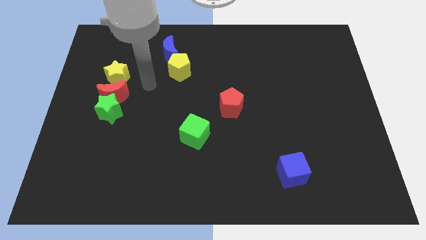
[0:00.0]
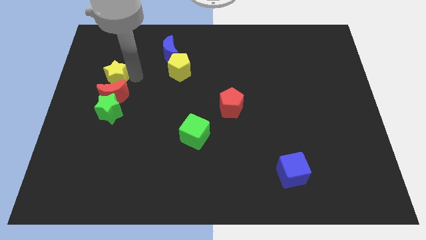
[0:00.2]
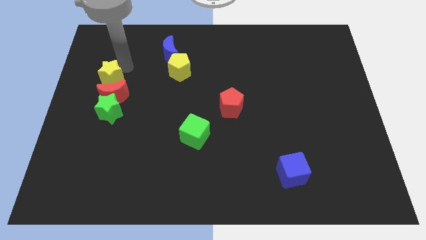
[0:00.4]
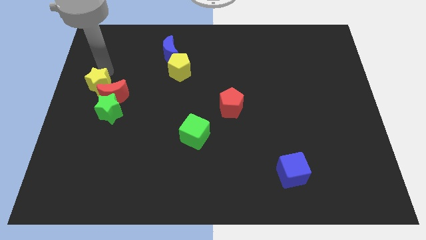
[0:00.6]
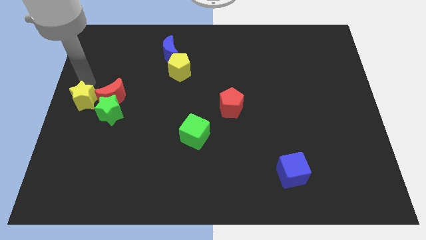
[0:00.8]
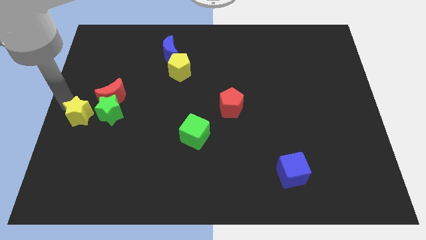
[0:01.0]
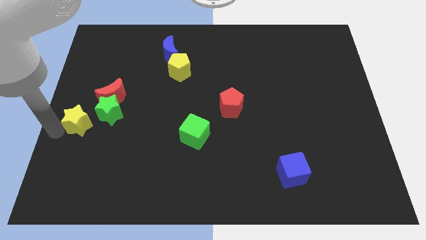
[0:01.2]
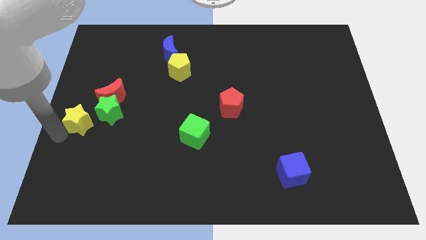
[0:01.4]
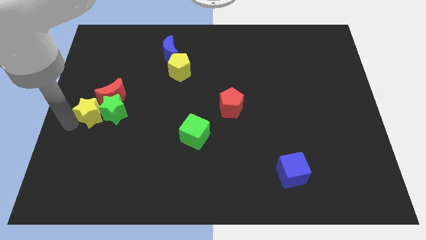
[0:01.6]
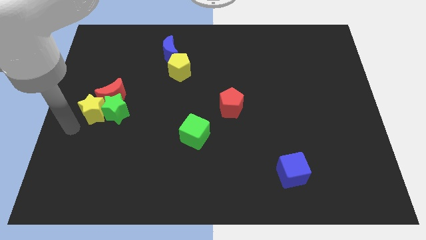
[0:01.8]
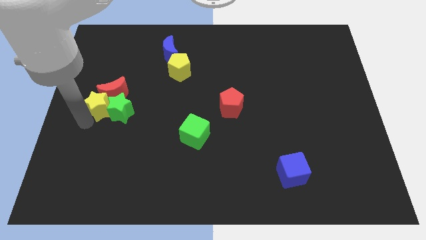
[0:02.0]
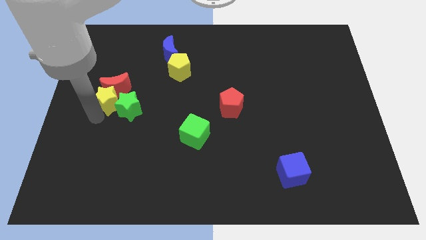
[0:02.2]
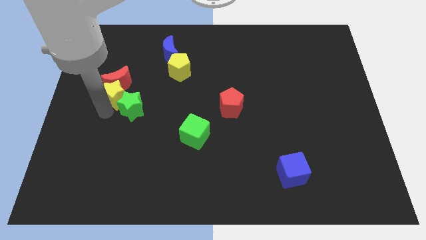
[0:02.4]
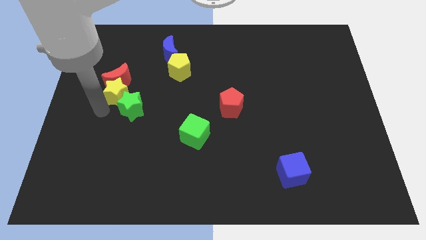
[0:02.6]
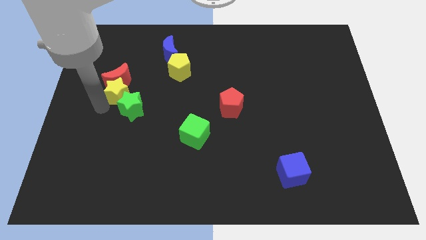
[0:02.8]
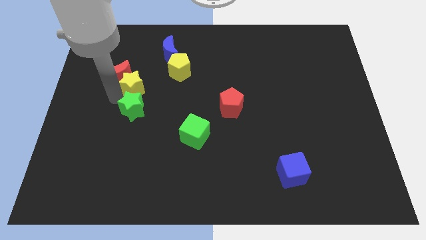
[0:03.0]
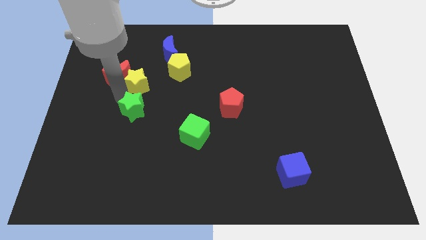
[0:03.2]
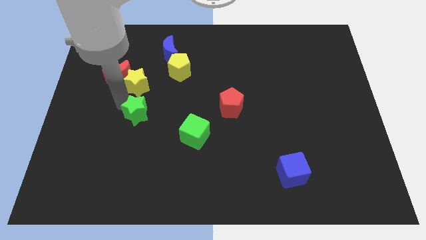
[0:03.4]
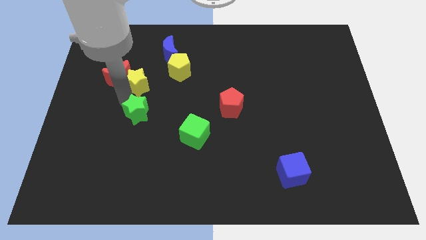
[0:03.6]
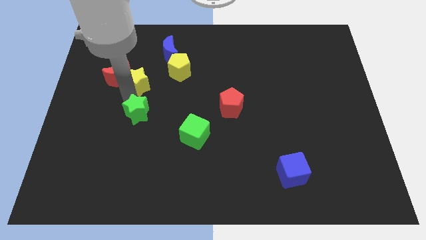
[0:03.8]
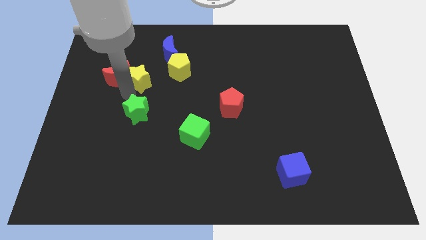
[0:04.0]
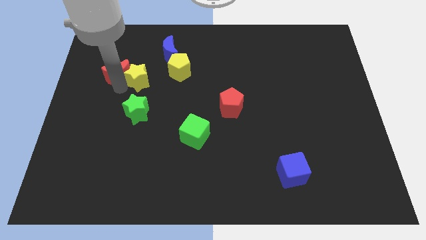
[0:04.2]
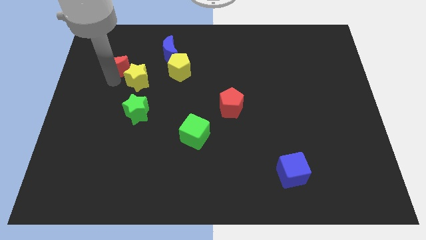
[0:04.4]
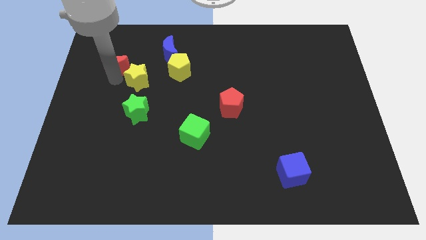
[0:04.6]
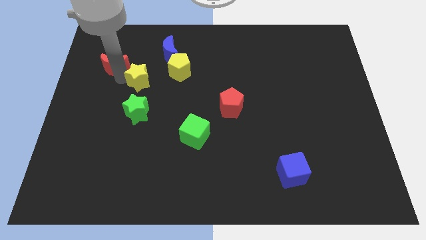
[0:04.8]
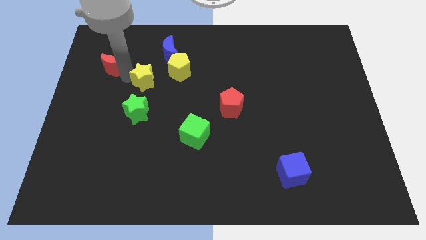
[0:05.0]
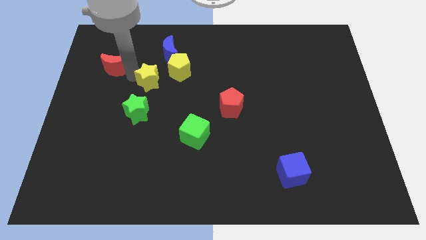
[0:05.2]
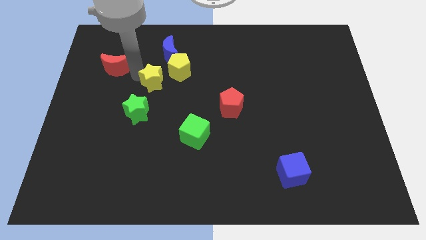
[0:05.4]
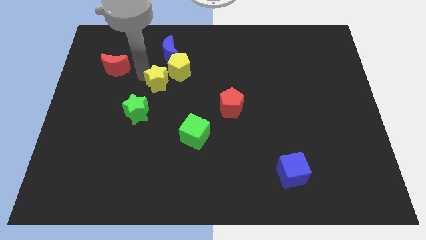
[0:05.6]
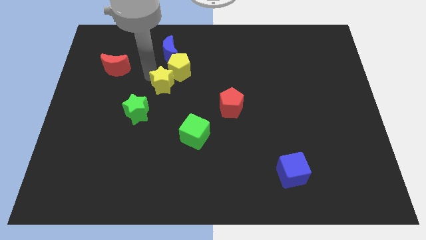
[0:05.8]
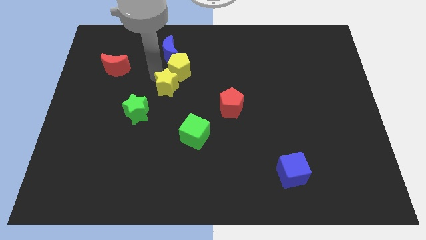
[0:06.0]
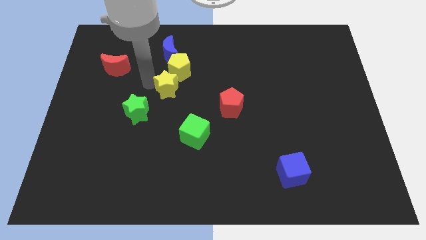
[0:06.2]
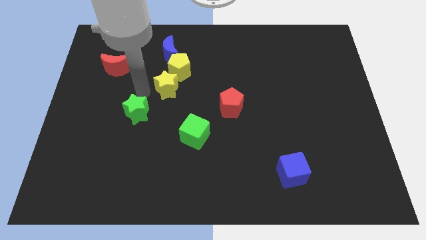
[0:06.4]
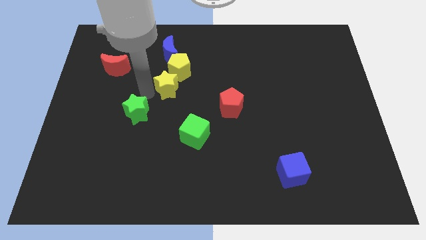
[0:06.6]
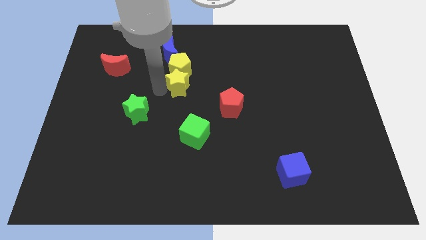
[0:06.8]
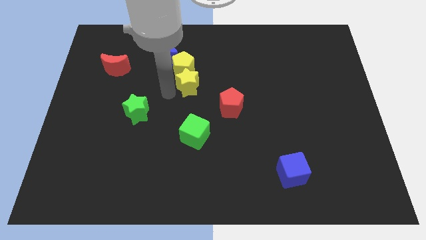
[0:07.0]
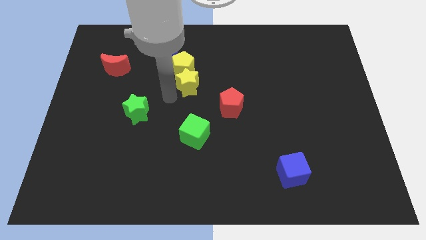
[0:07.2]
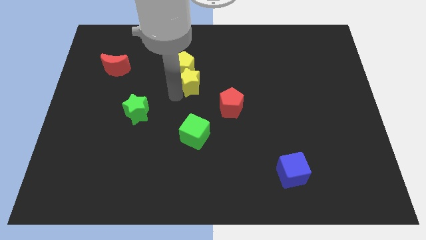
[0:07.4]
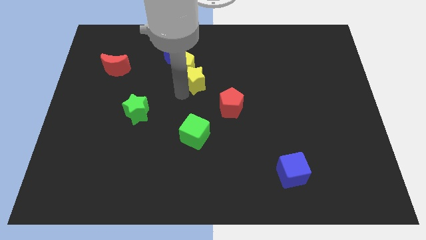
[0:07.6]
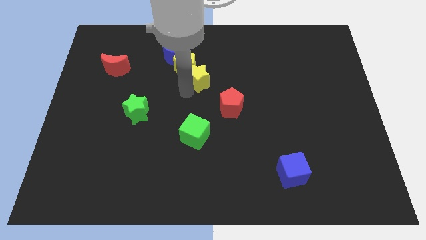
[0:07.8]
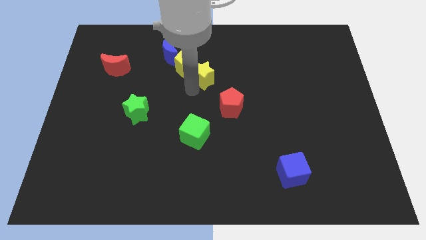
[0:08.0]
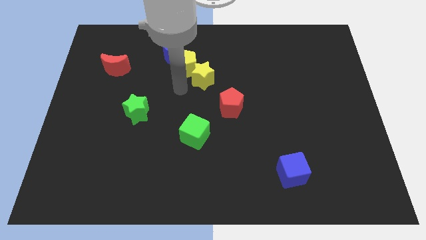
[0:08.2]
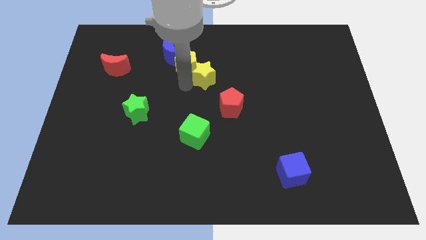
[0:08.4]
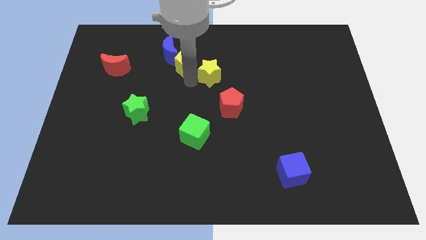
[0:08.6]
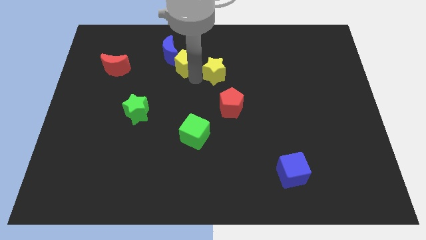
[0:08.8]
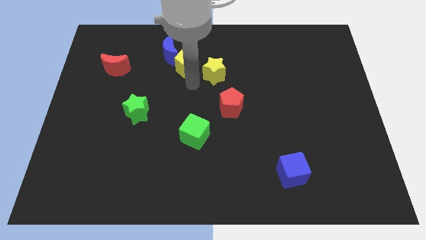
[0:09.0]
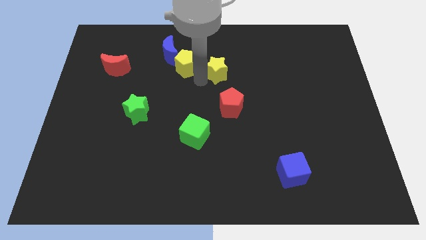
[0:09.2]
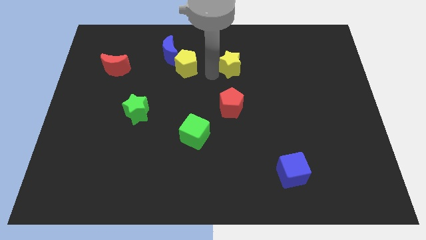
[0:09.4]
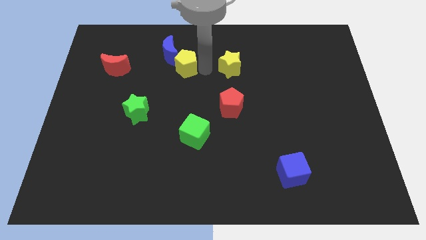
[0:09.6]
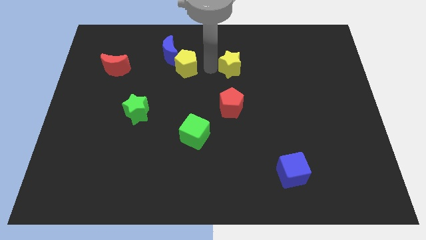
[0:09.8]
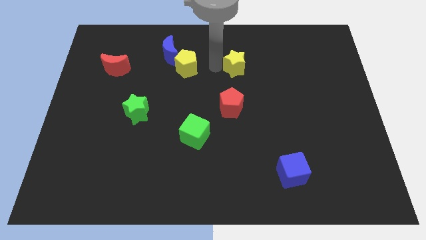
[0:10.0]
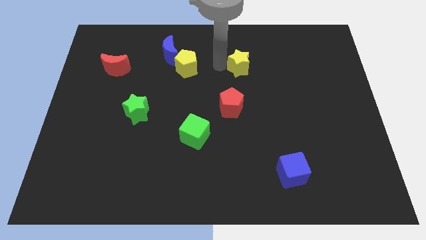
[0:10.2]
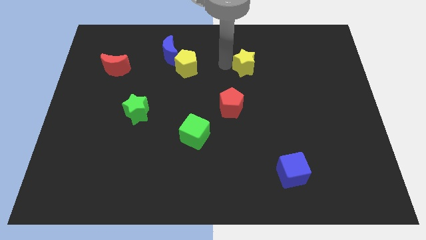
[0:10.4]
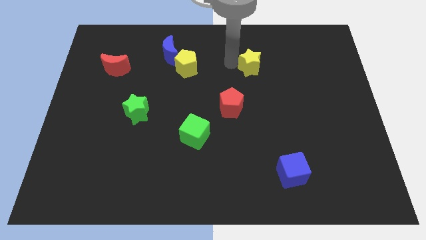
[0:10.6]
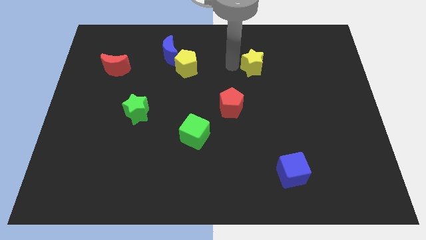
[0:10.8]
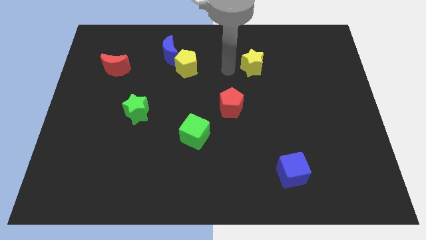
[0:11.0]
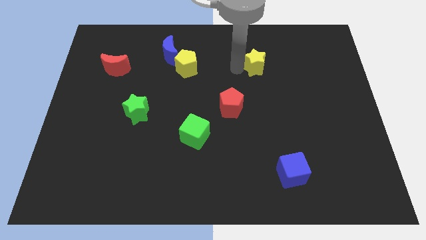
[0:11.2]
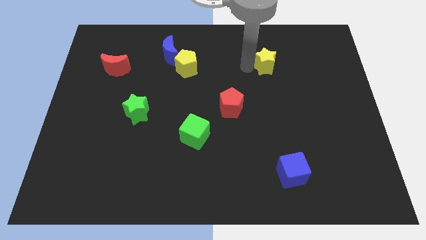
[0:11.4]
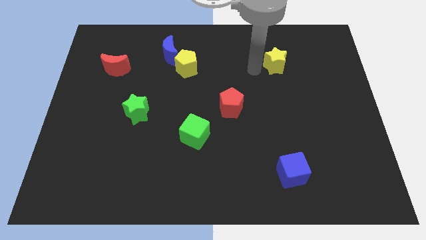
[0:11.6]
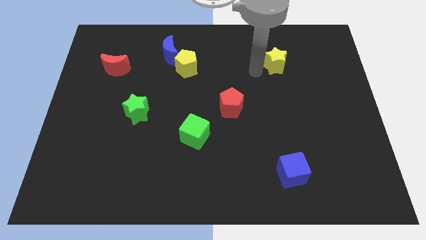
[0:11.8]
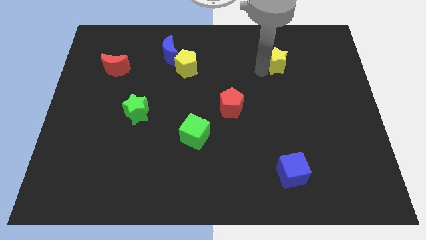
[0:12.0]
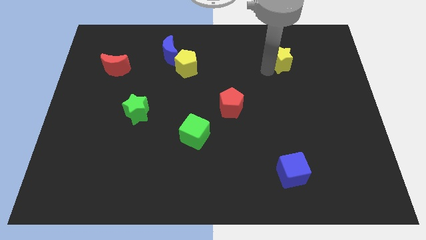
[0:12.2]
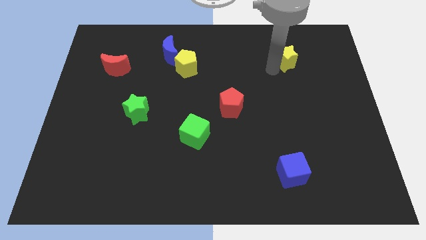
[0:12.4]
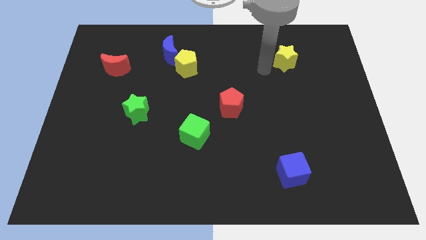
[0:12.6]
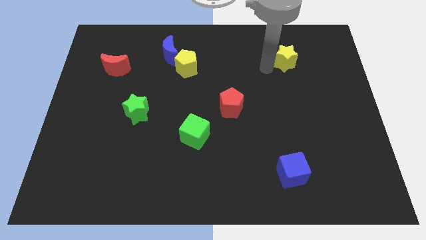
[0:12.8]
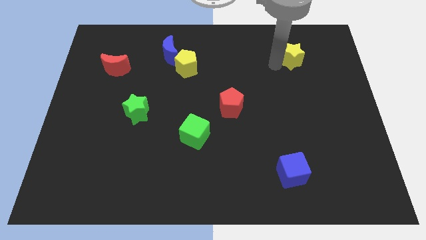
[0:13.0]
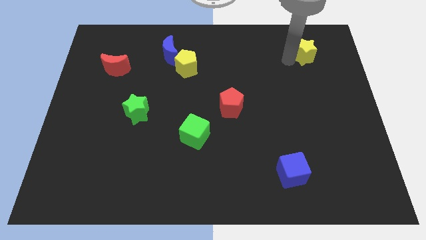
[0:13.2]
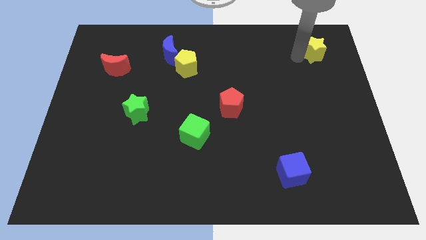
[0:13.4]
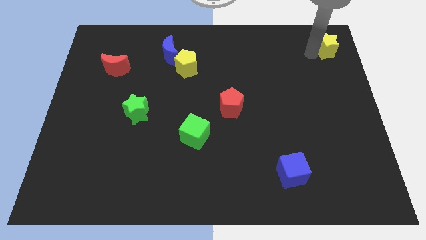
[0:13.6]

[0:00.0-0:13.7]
put the yellow star to the top right
